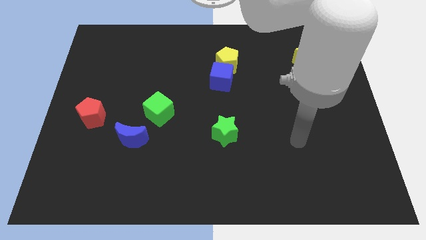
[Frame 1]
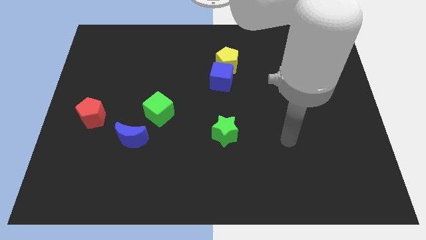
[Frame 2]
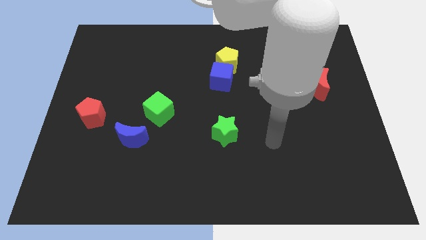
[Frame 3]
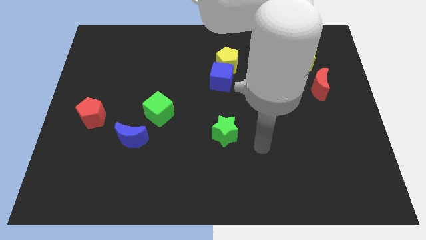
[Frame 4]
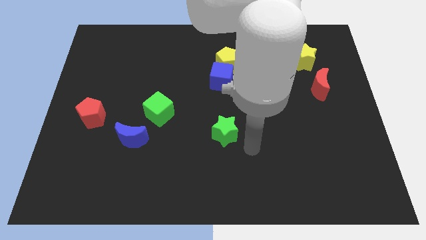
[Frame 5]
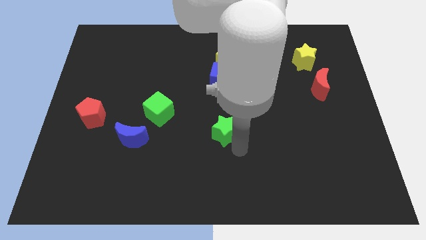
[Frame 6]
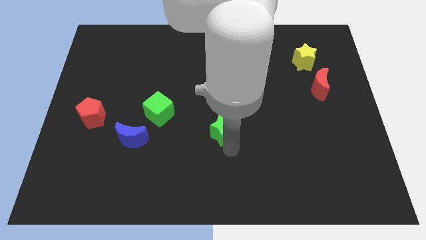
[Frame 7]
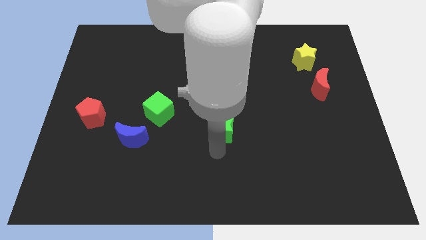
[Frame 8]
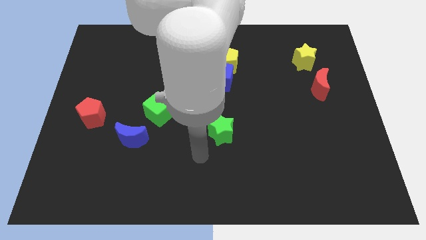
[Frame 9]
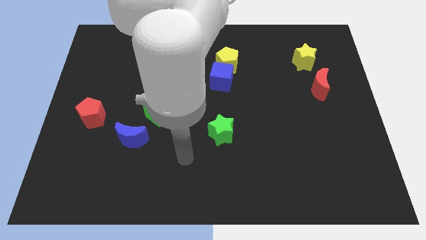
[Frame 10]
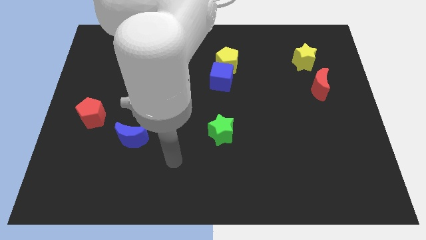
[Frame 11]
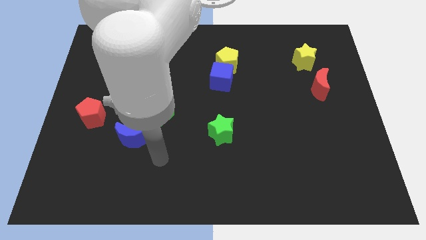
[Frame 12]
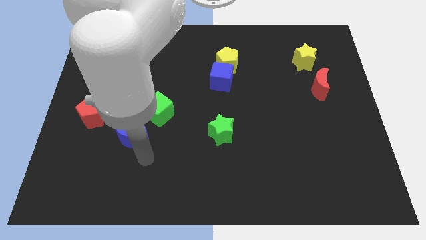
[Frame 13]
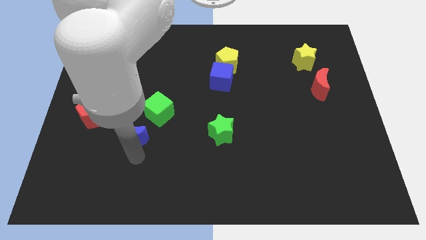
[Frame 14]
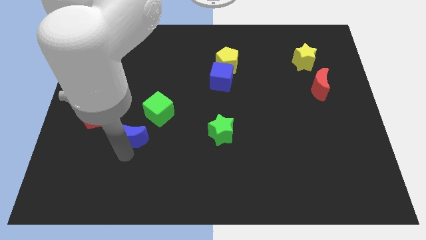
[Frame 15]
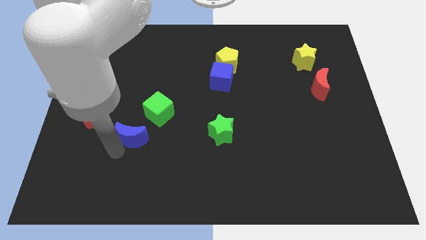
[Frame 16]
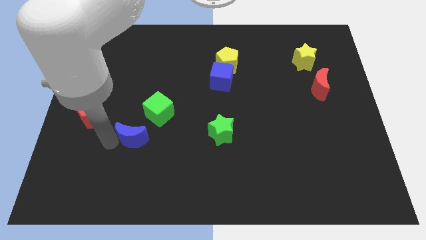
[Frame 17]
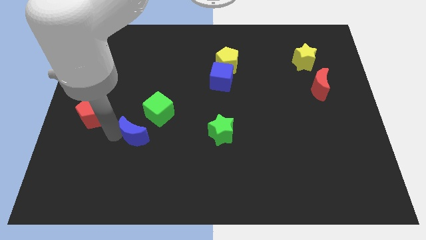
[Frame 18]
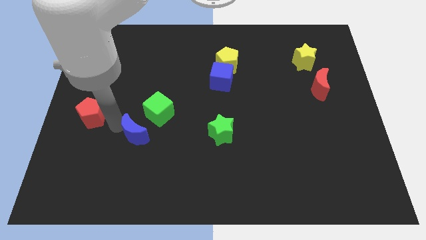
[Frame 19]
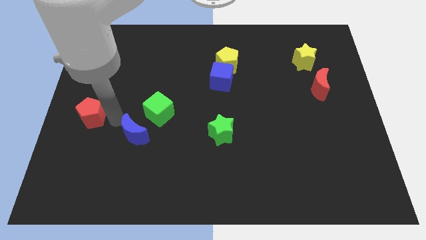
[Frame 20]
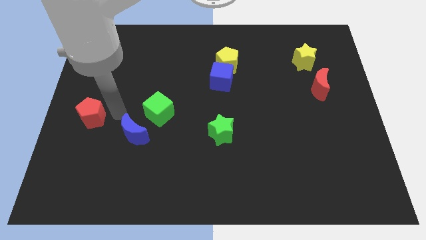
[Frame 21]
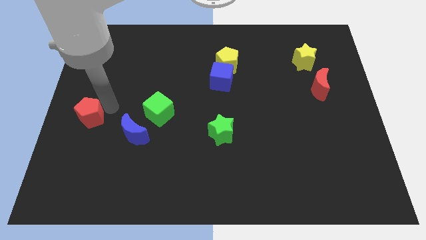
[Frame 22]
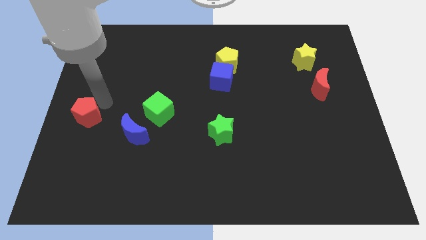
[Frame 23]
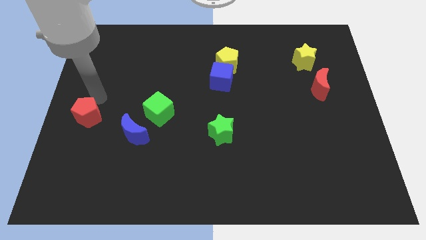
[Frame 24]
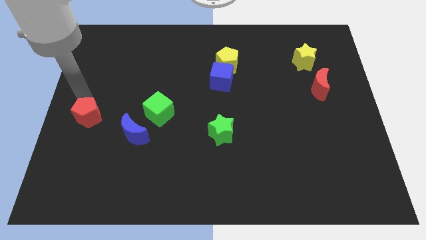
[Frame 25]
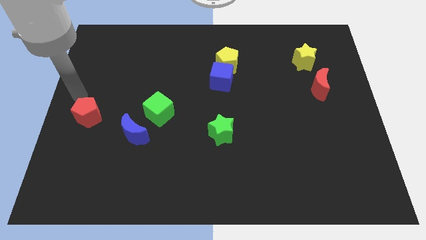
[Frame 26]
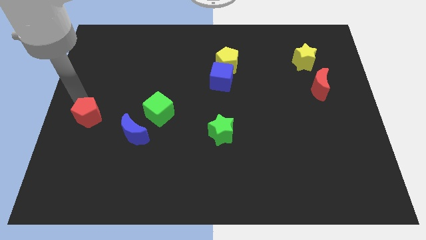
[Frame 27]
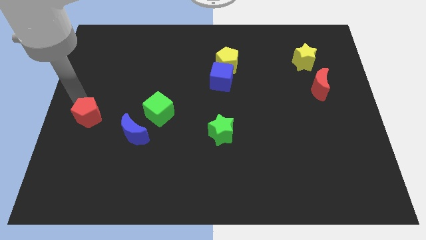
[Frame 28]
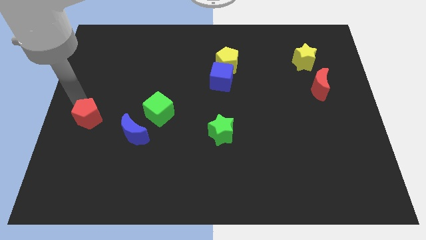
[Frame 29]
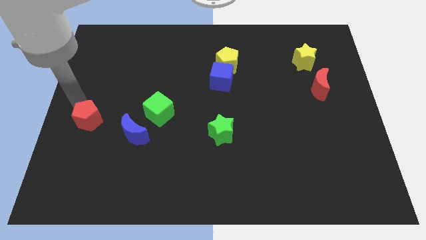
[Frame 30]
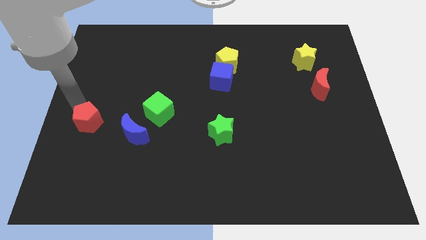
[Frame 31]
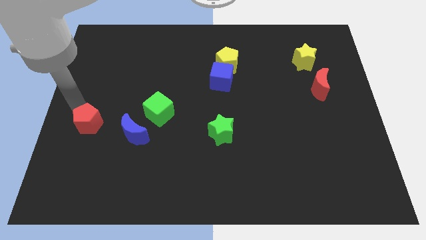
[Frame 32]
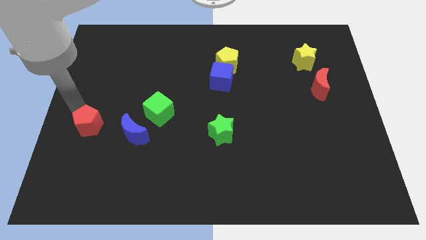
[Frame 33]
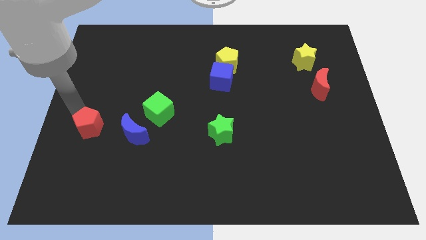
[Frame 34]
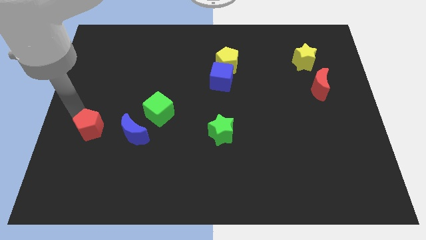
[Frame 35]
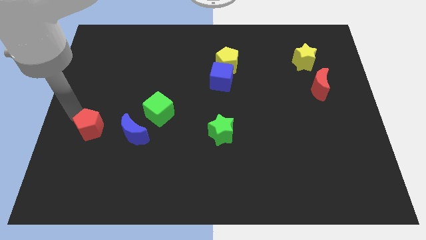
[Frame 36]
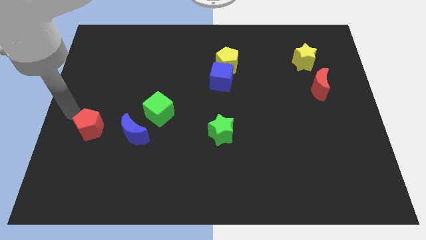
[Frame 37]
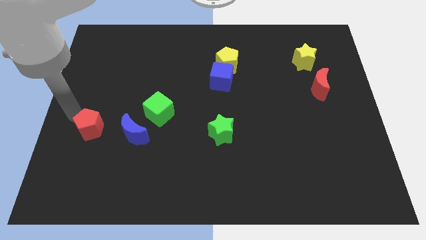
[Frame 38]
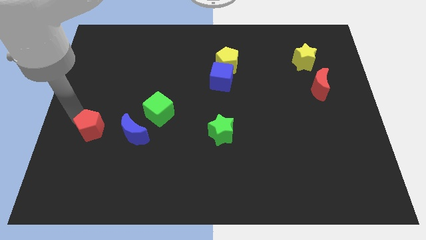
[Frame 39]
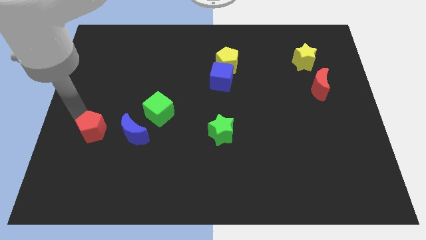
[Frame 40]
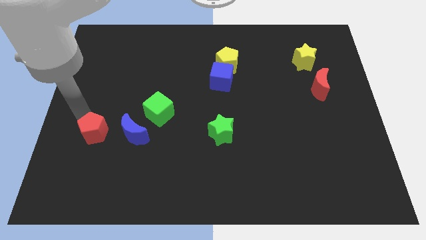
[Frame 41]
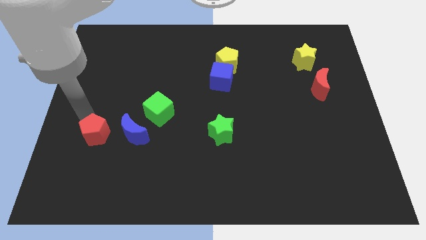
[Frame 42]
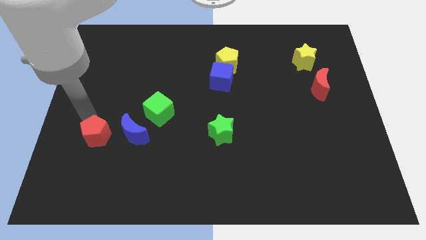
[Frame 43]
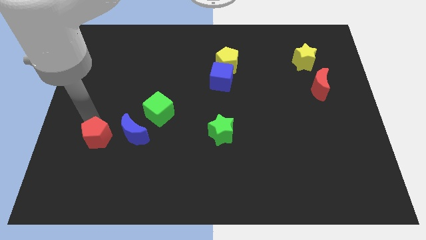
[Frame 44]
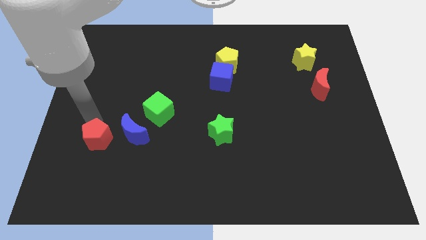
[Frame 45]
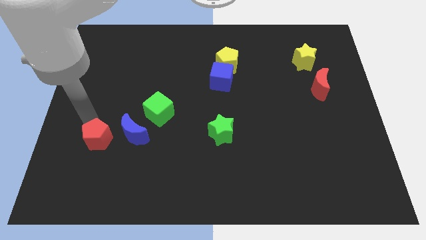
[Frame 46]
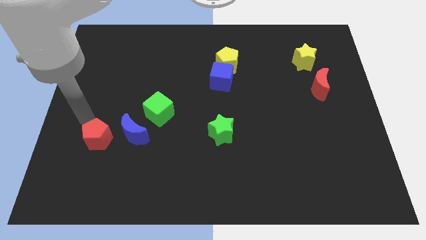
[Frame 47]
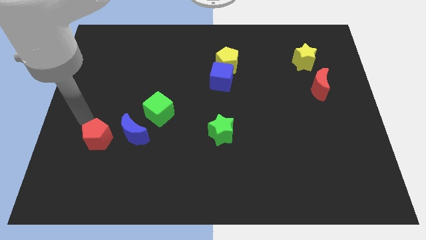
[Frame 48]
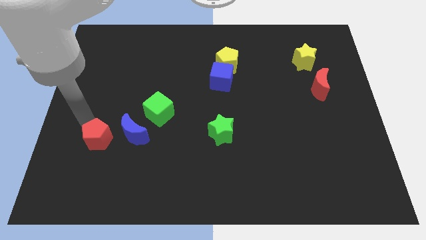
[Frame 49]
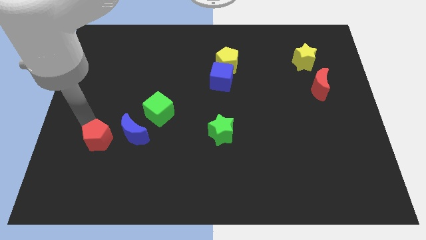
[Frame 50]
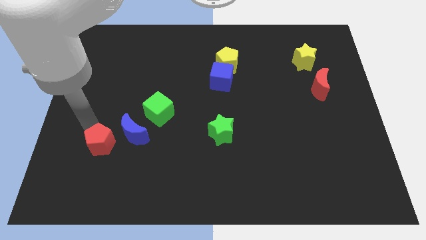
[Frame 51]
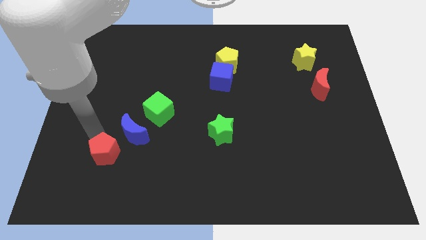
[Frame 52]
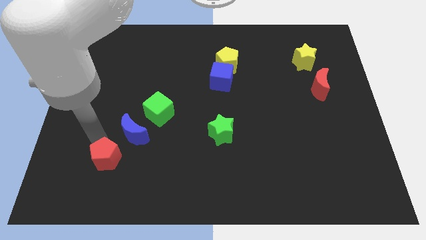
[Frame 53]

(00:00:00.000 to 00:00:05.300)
push the red pentagon to the bottom of the blue moon

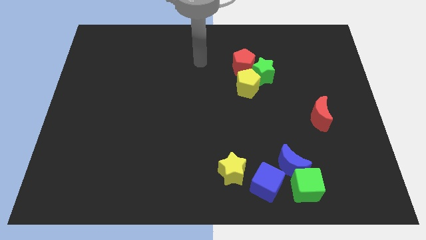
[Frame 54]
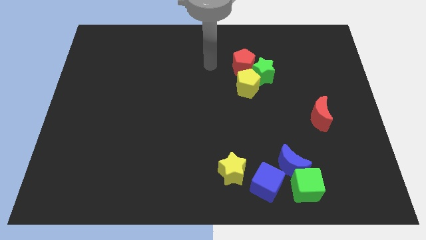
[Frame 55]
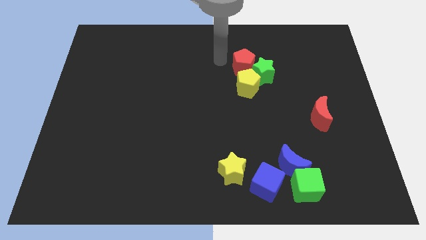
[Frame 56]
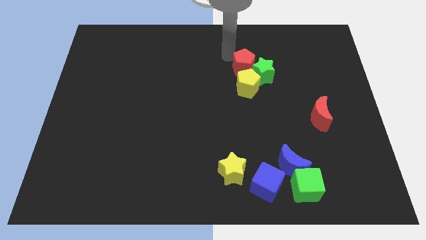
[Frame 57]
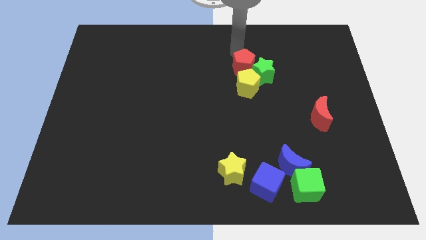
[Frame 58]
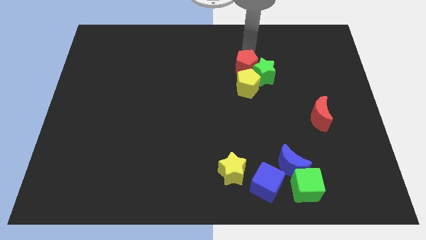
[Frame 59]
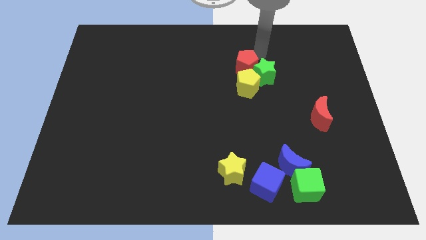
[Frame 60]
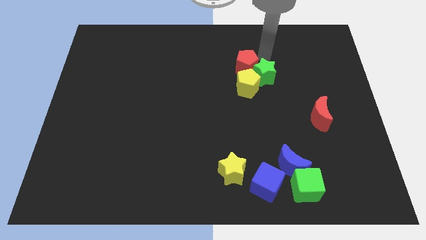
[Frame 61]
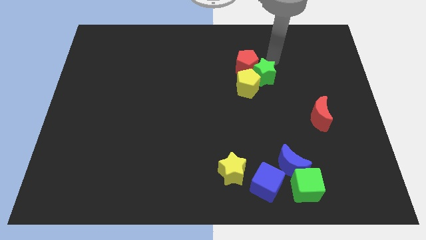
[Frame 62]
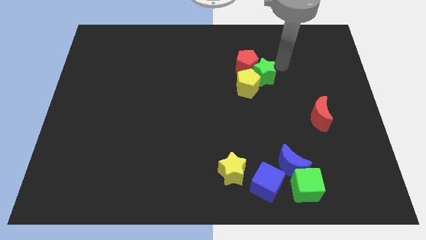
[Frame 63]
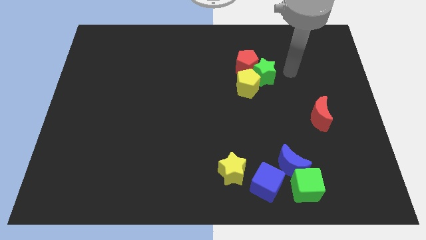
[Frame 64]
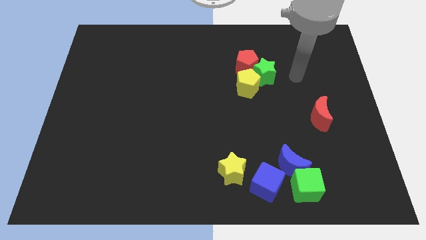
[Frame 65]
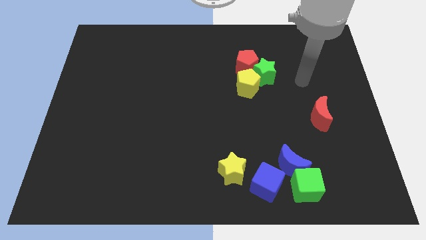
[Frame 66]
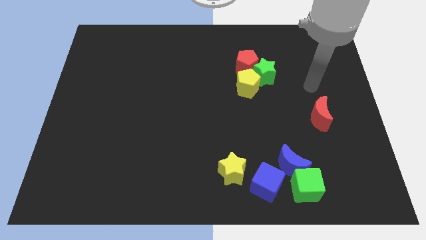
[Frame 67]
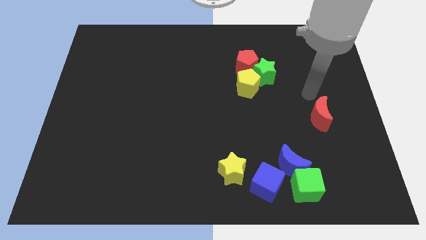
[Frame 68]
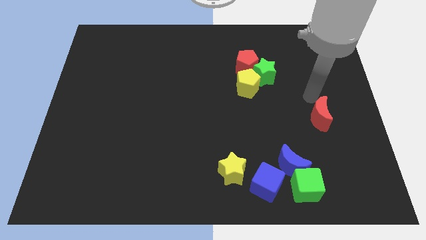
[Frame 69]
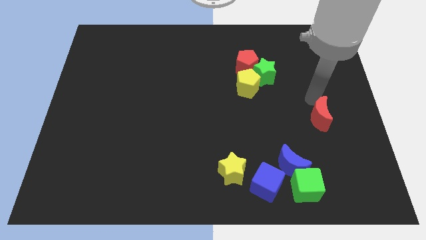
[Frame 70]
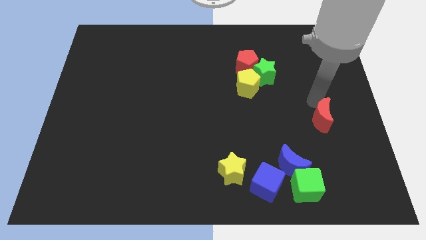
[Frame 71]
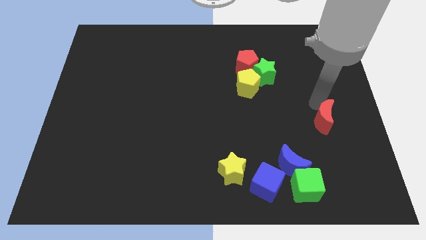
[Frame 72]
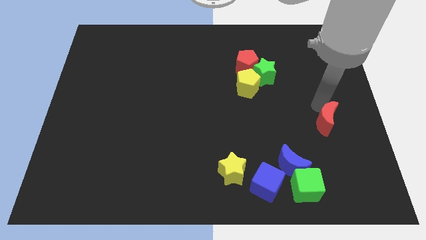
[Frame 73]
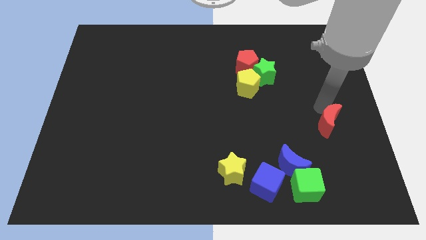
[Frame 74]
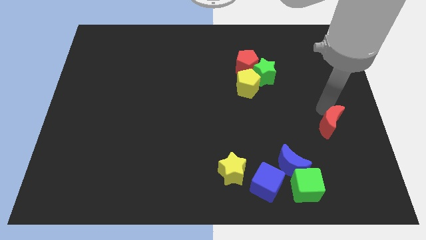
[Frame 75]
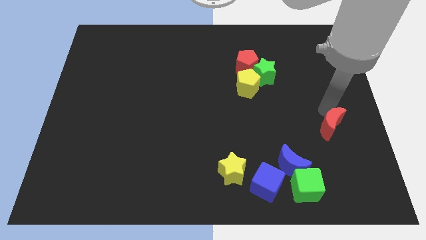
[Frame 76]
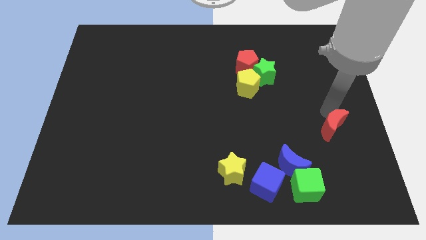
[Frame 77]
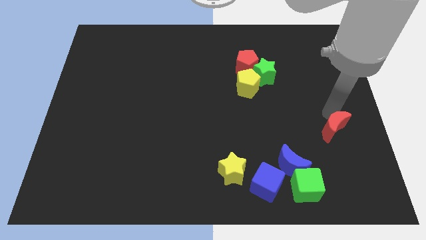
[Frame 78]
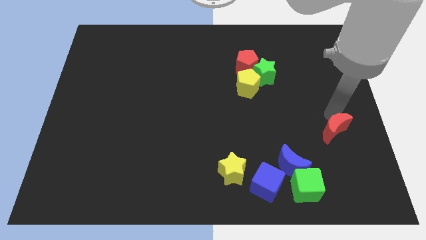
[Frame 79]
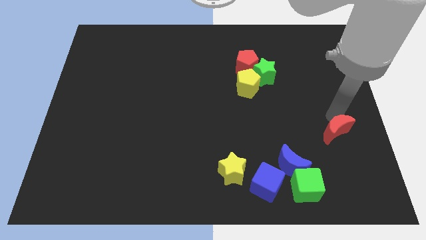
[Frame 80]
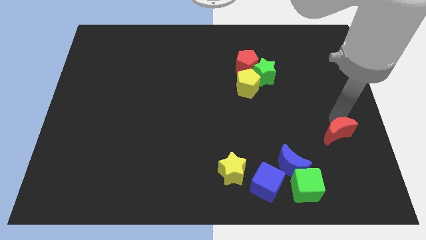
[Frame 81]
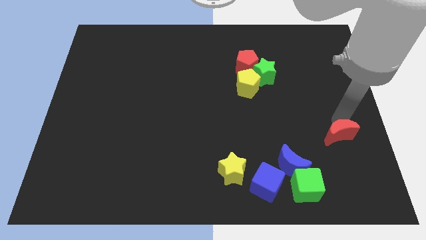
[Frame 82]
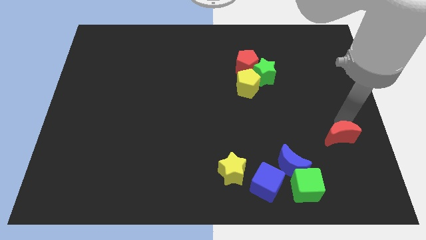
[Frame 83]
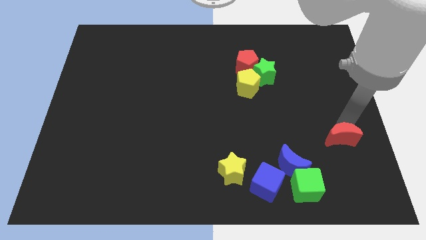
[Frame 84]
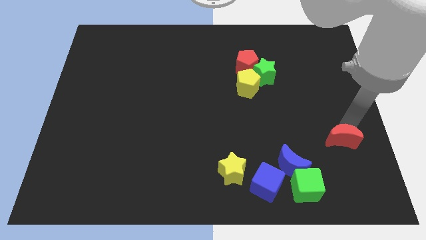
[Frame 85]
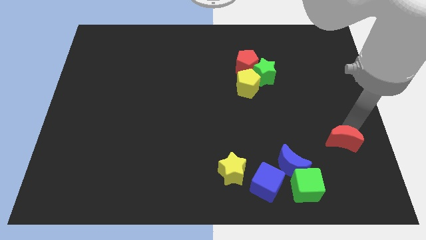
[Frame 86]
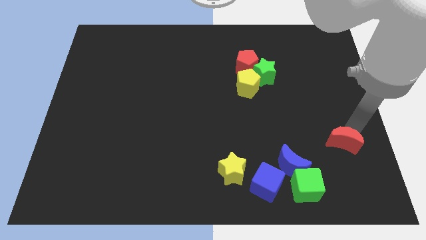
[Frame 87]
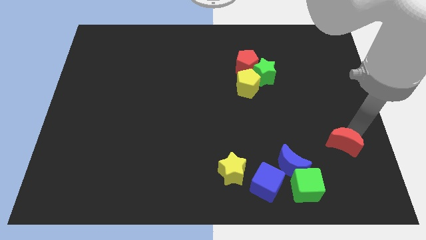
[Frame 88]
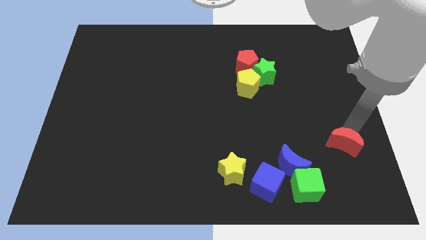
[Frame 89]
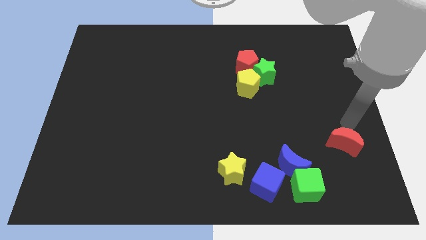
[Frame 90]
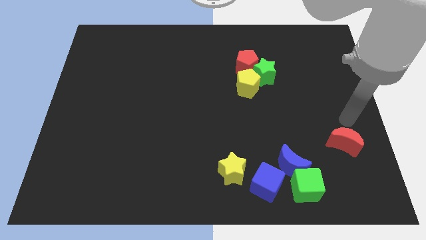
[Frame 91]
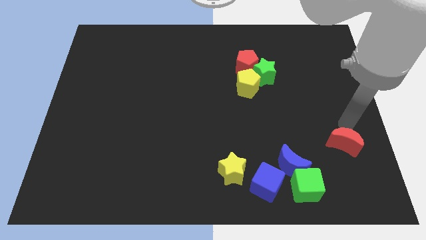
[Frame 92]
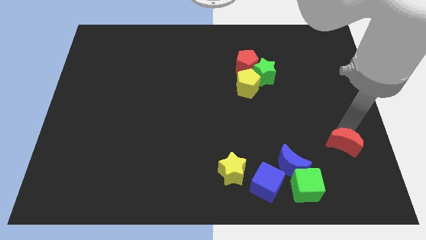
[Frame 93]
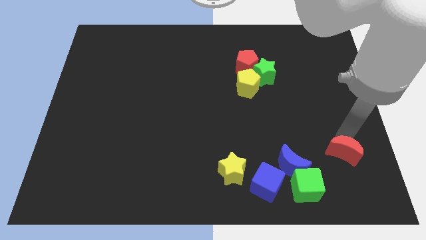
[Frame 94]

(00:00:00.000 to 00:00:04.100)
put the red moon to the right side of the blue moon
